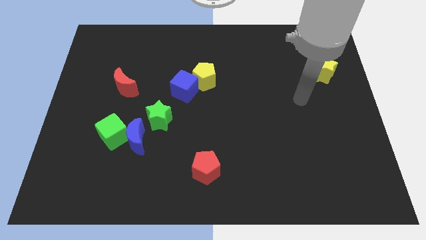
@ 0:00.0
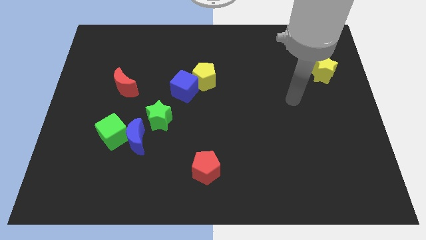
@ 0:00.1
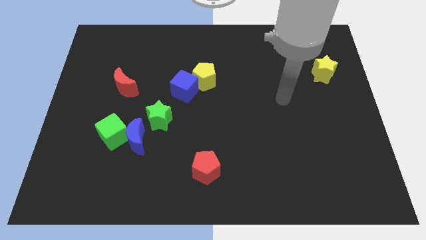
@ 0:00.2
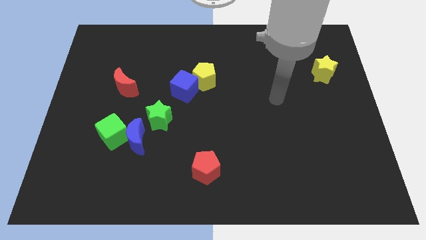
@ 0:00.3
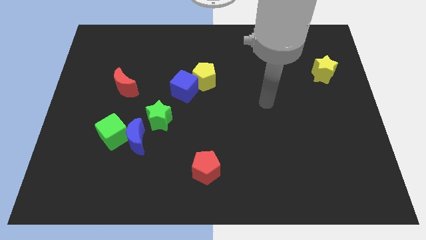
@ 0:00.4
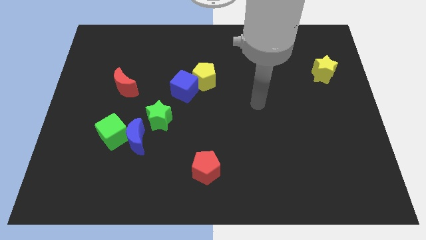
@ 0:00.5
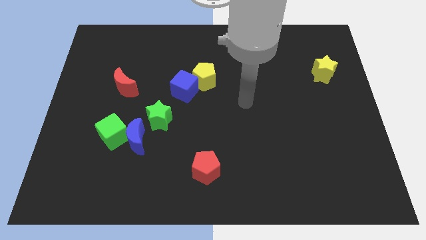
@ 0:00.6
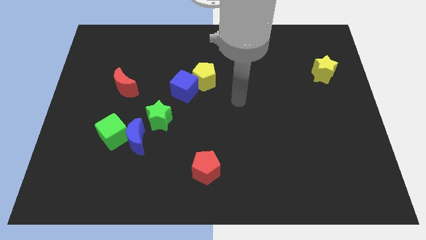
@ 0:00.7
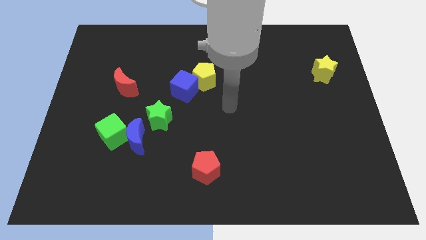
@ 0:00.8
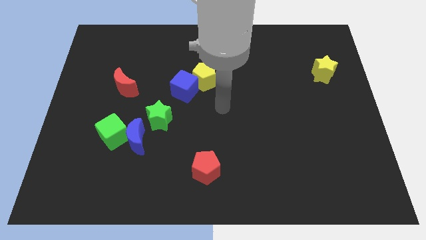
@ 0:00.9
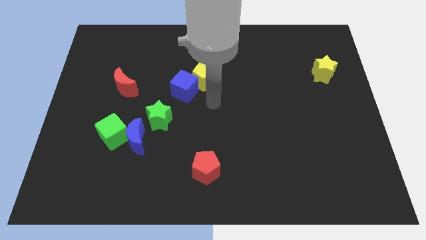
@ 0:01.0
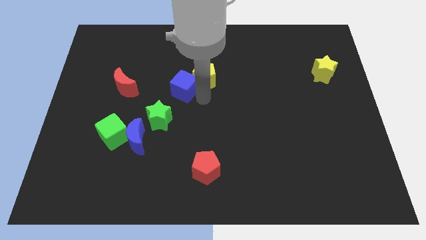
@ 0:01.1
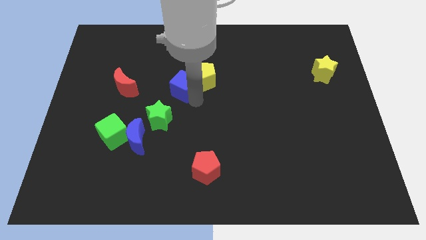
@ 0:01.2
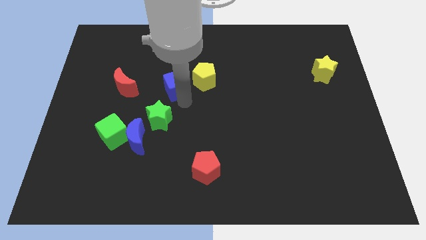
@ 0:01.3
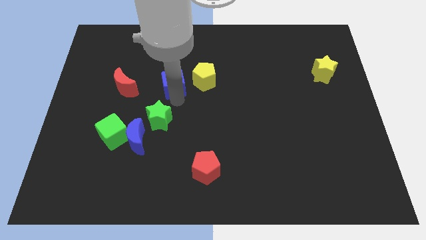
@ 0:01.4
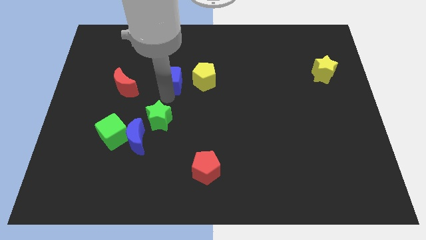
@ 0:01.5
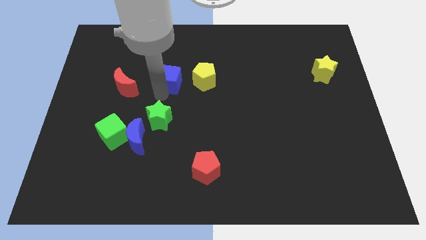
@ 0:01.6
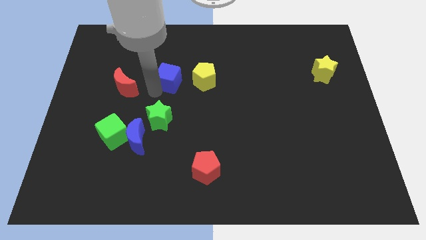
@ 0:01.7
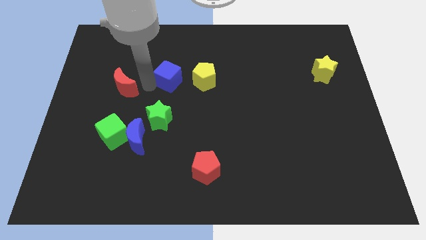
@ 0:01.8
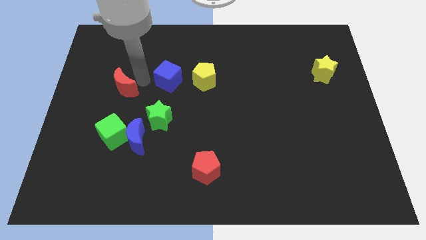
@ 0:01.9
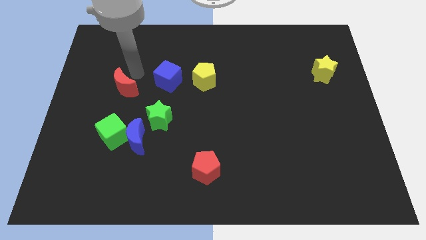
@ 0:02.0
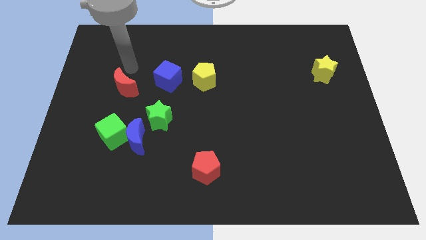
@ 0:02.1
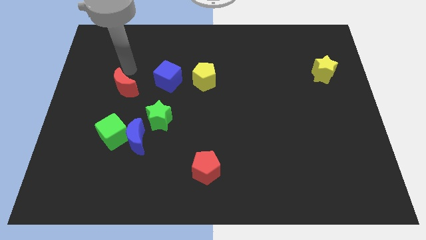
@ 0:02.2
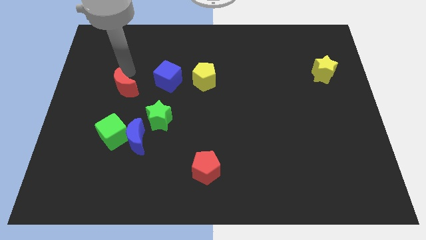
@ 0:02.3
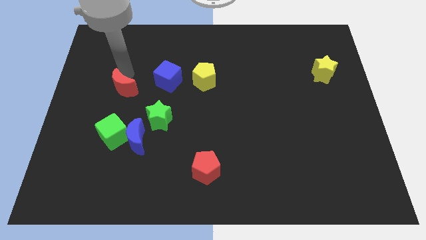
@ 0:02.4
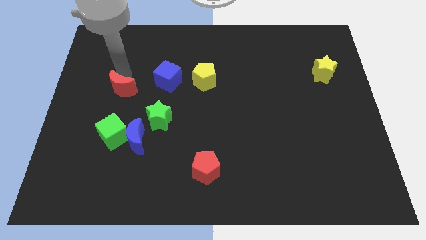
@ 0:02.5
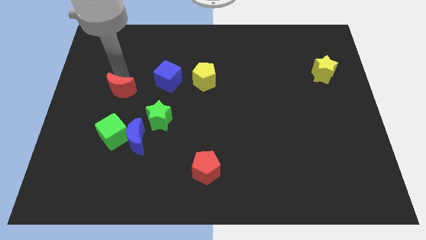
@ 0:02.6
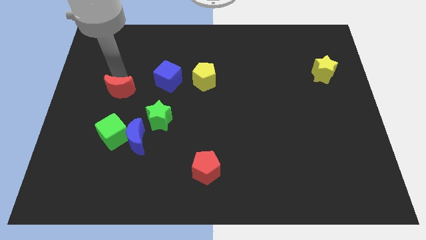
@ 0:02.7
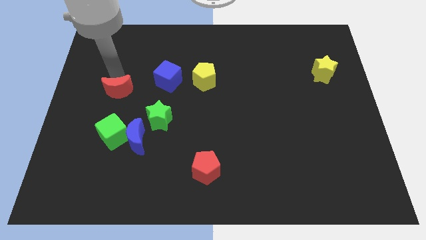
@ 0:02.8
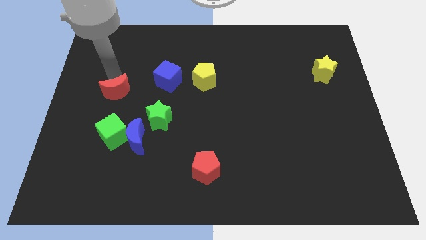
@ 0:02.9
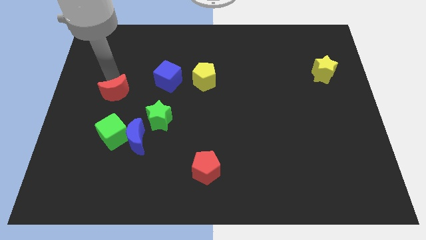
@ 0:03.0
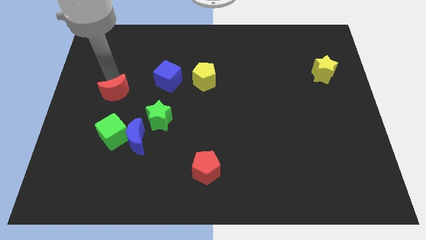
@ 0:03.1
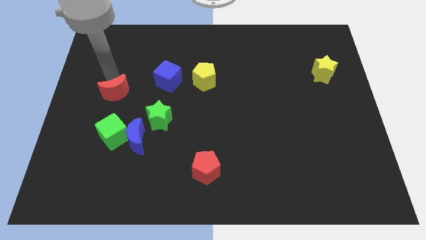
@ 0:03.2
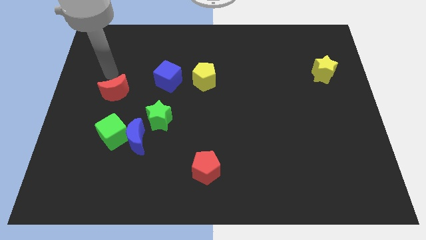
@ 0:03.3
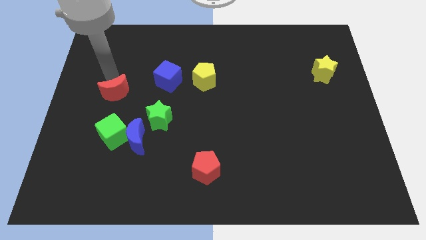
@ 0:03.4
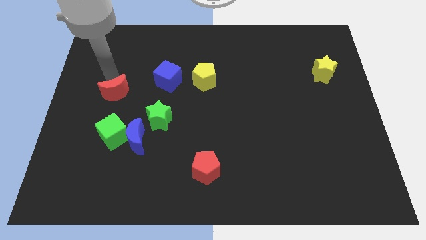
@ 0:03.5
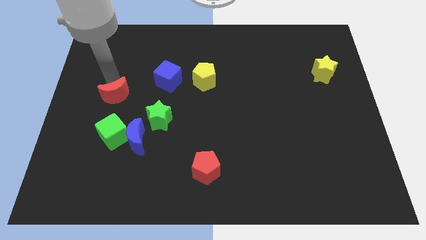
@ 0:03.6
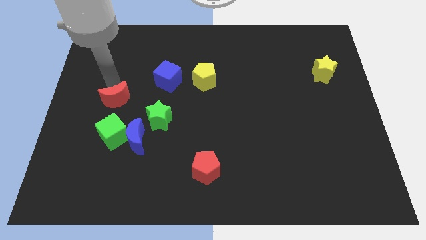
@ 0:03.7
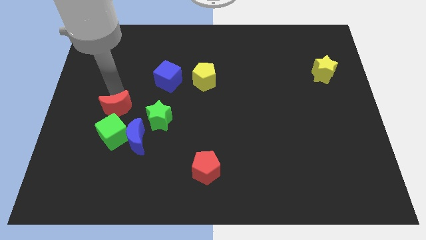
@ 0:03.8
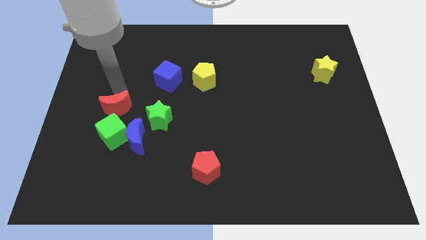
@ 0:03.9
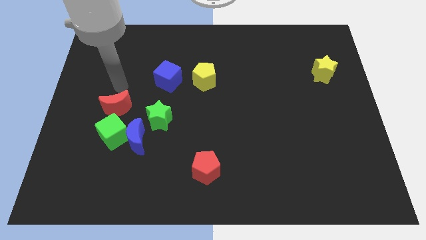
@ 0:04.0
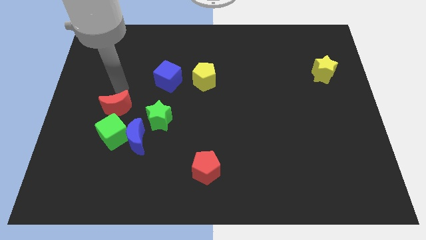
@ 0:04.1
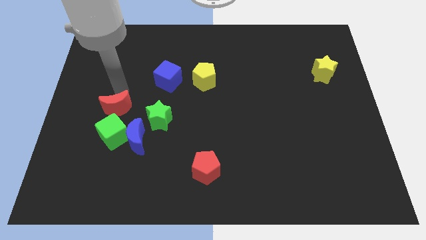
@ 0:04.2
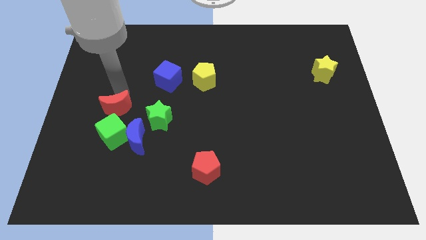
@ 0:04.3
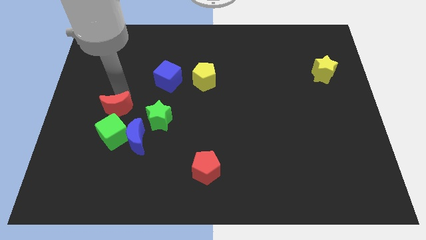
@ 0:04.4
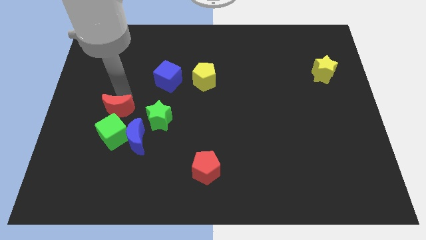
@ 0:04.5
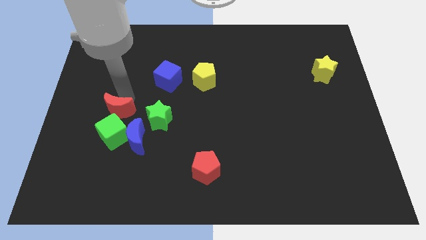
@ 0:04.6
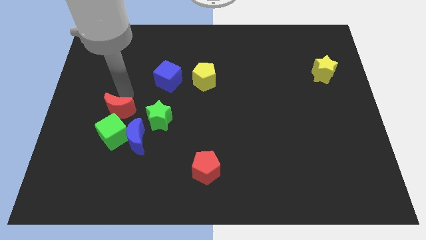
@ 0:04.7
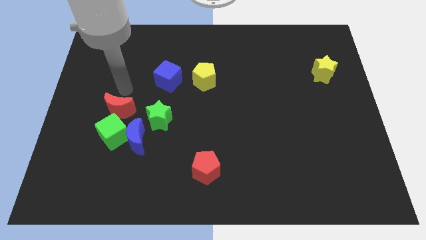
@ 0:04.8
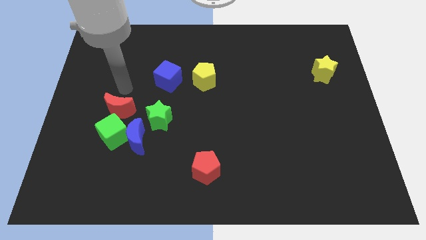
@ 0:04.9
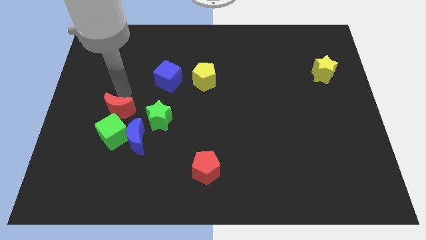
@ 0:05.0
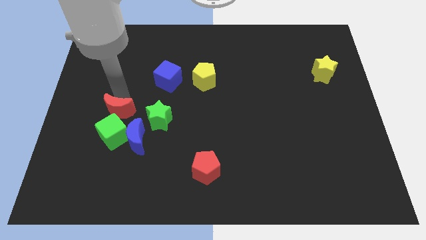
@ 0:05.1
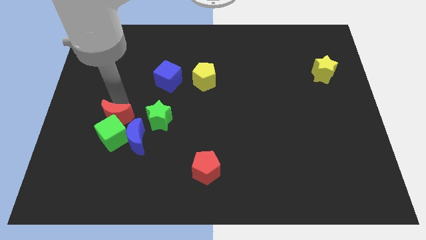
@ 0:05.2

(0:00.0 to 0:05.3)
push the red moon close to the green cube

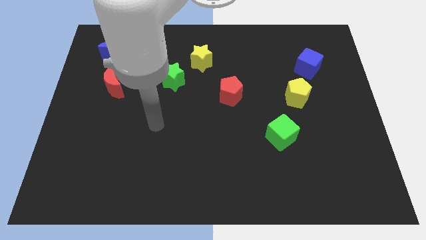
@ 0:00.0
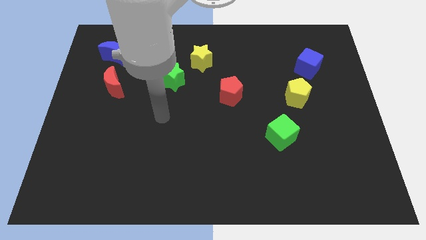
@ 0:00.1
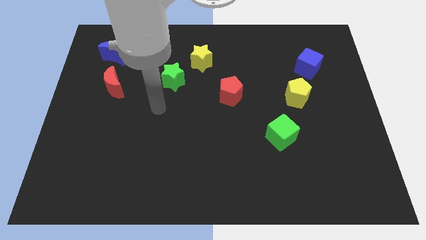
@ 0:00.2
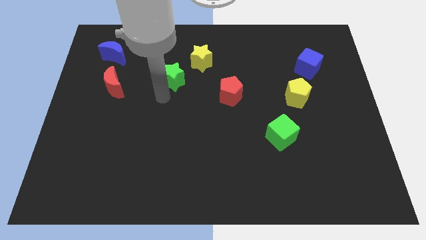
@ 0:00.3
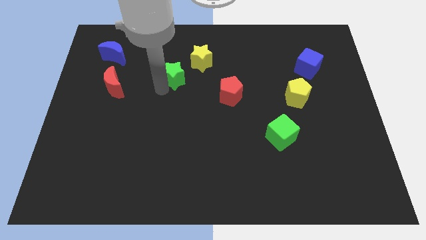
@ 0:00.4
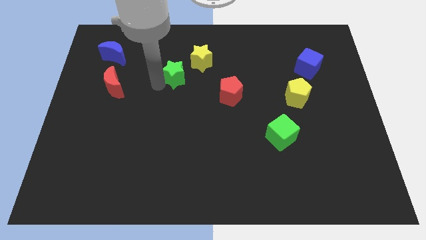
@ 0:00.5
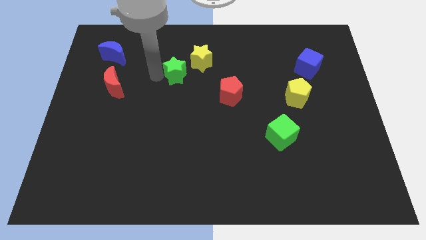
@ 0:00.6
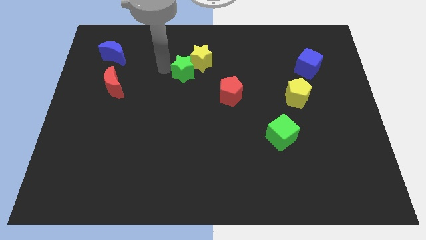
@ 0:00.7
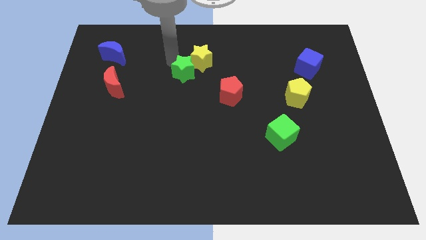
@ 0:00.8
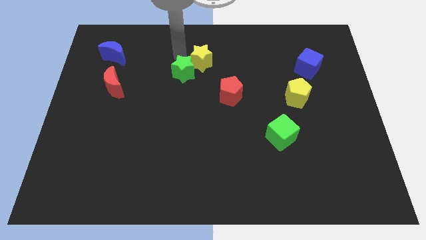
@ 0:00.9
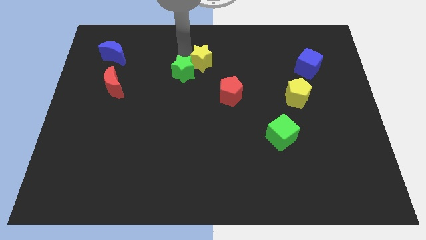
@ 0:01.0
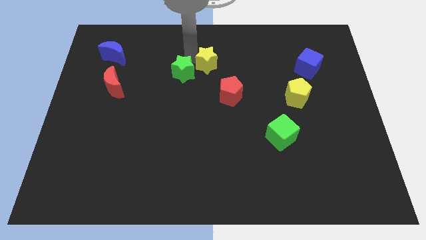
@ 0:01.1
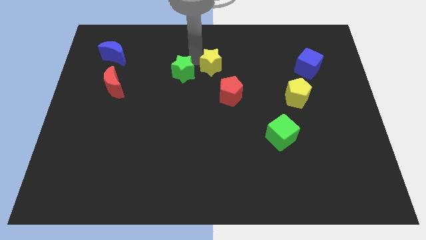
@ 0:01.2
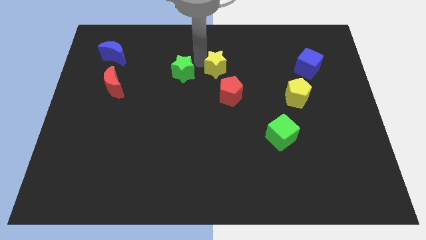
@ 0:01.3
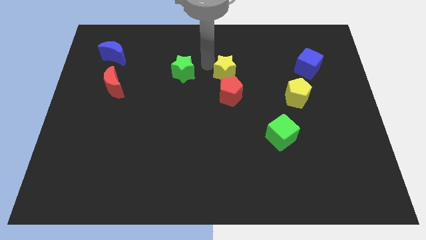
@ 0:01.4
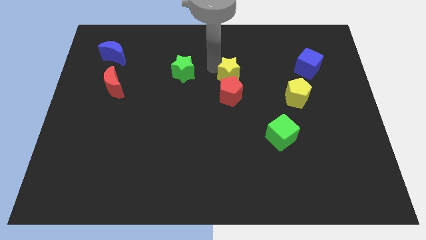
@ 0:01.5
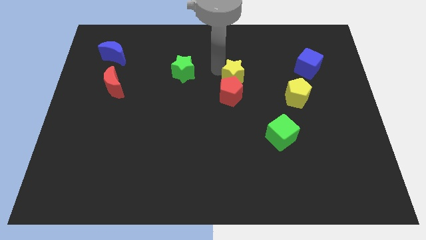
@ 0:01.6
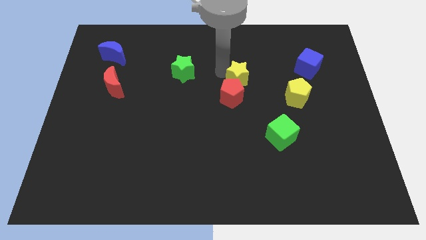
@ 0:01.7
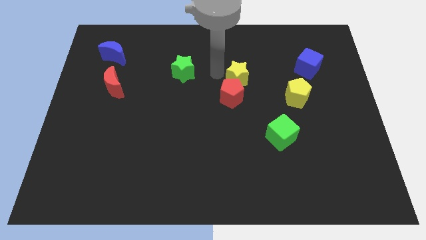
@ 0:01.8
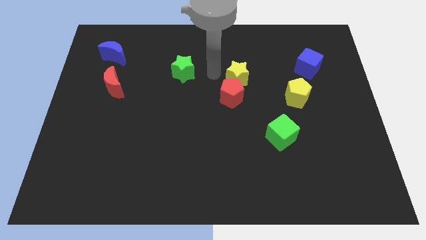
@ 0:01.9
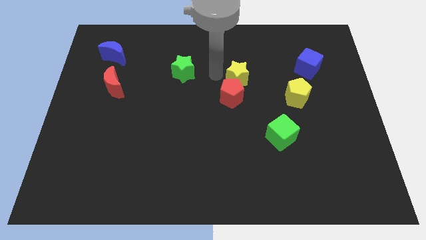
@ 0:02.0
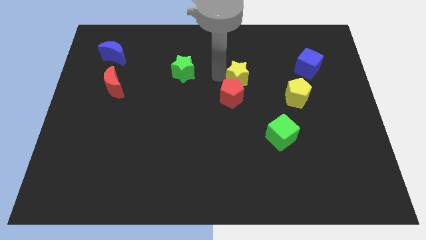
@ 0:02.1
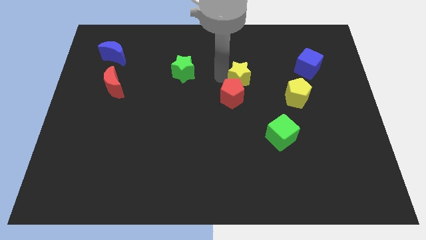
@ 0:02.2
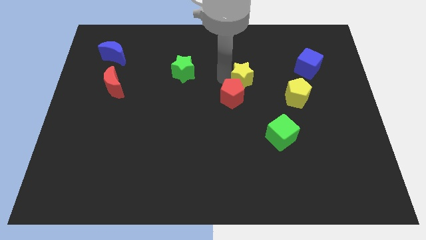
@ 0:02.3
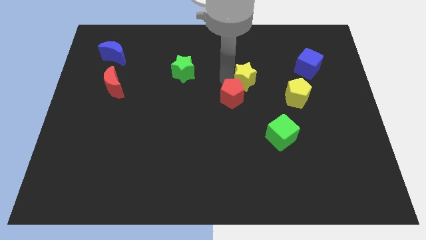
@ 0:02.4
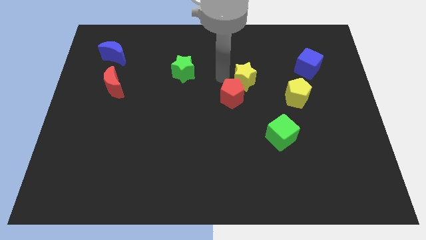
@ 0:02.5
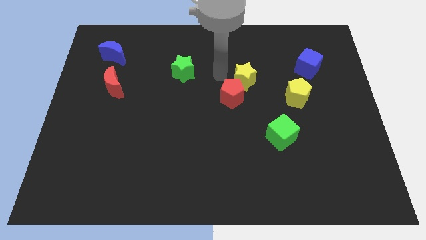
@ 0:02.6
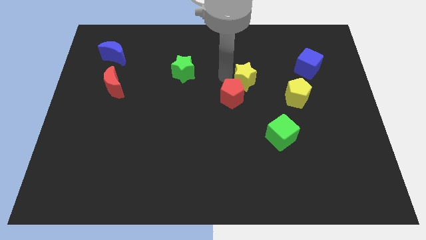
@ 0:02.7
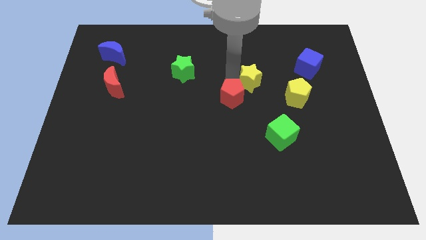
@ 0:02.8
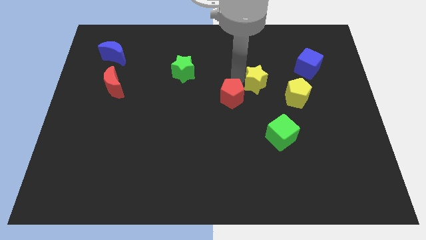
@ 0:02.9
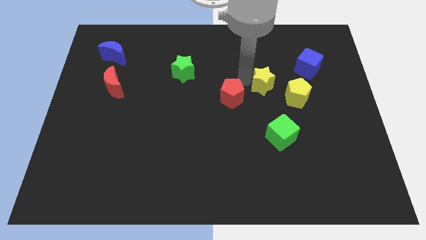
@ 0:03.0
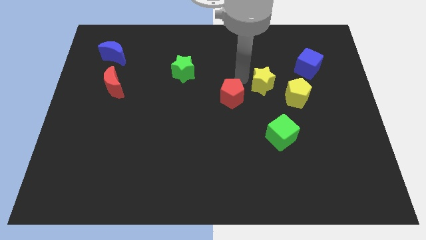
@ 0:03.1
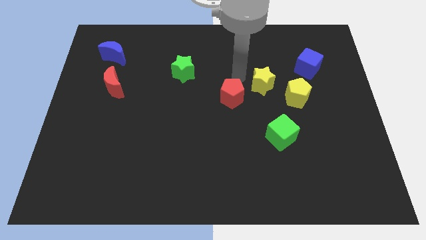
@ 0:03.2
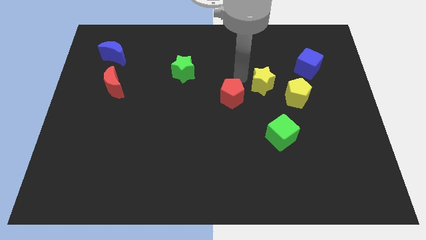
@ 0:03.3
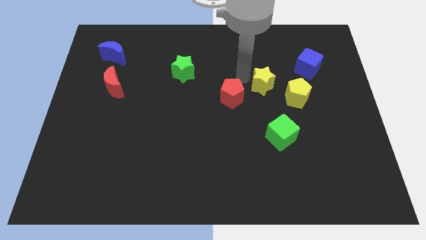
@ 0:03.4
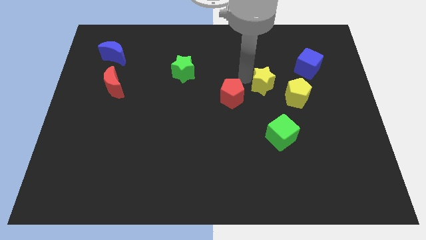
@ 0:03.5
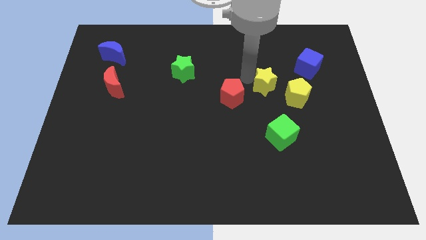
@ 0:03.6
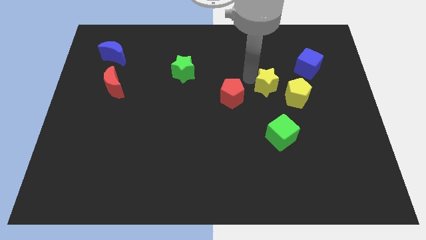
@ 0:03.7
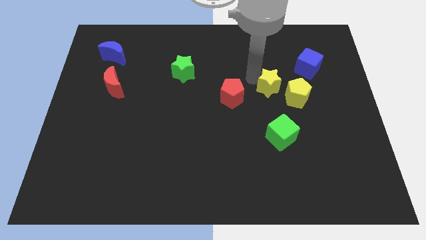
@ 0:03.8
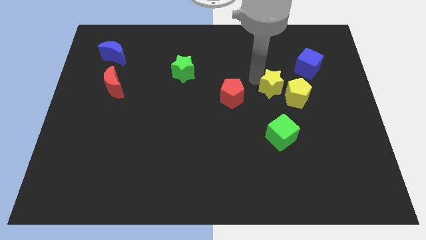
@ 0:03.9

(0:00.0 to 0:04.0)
move the yellow star towards the yellow pentagon
